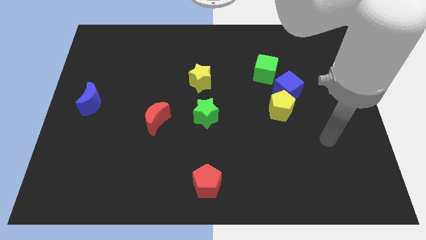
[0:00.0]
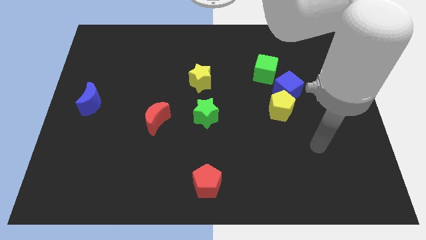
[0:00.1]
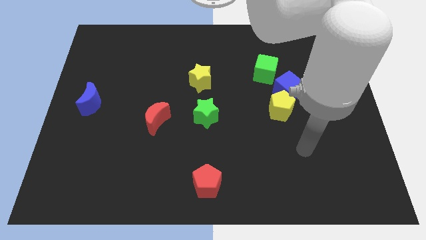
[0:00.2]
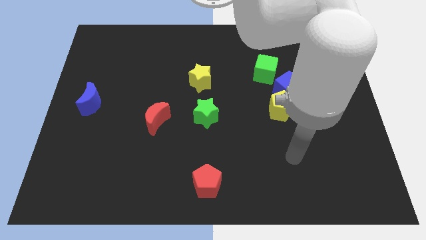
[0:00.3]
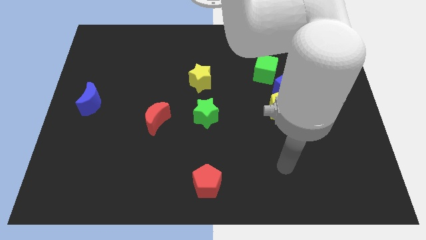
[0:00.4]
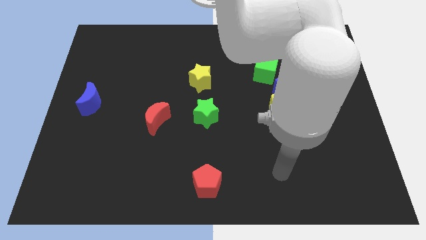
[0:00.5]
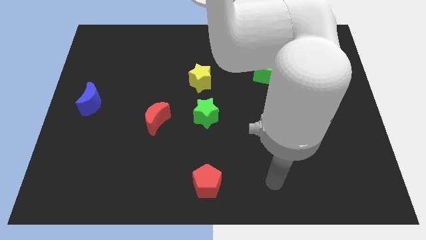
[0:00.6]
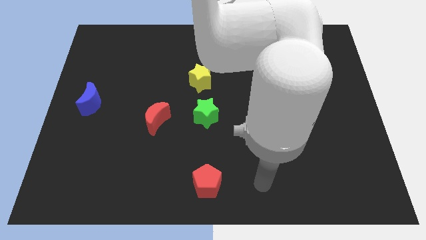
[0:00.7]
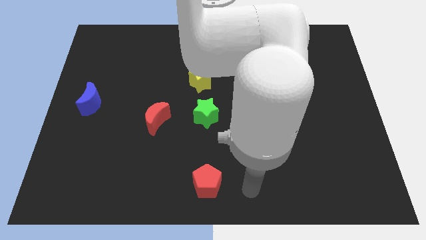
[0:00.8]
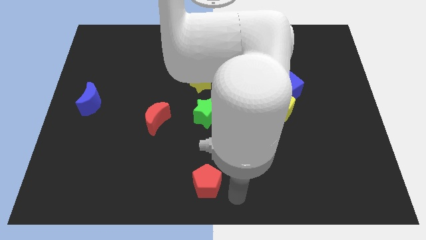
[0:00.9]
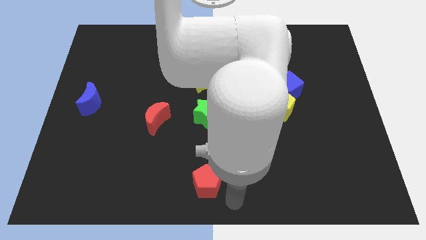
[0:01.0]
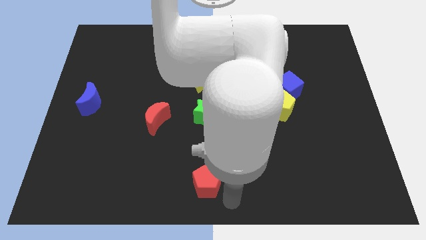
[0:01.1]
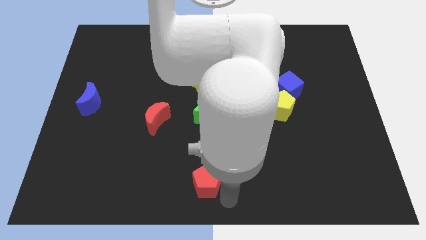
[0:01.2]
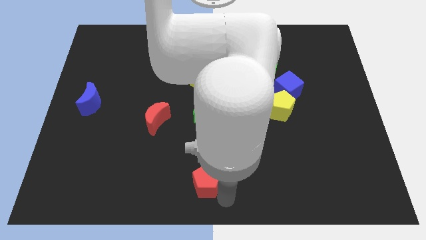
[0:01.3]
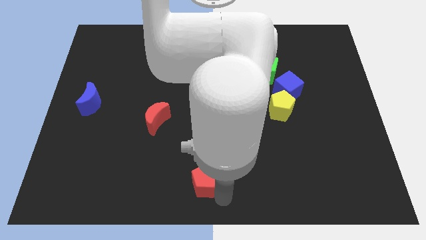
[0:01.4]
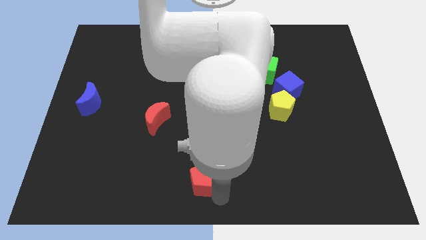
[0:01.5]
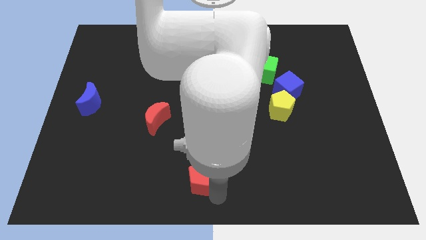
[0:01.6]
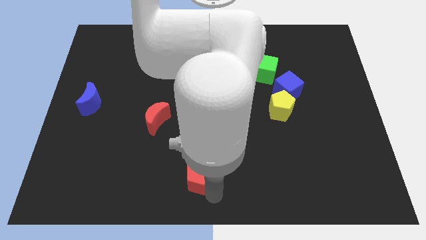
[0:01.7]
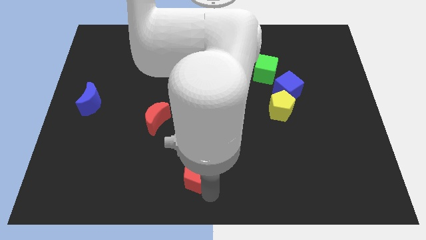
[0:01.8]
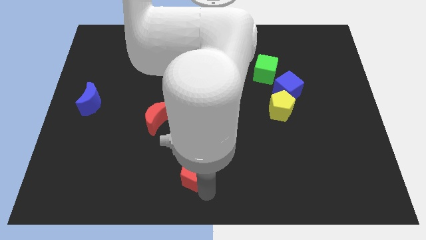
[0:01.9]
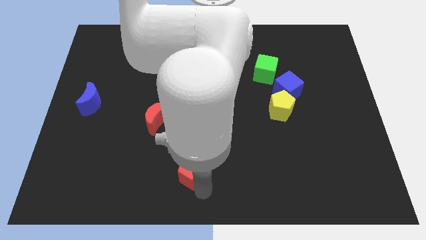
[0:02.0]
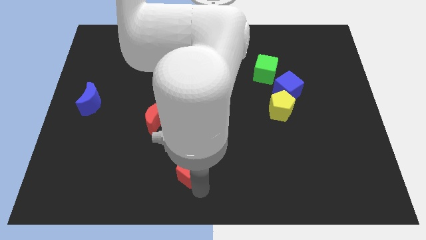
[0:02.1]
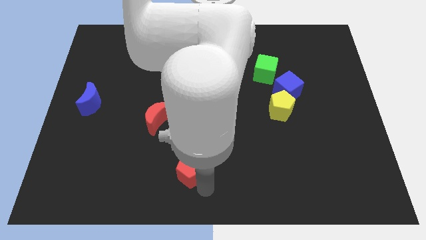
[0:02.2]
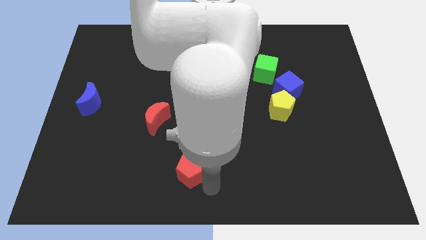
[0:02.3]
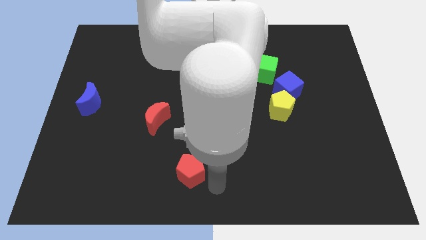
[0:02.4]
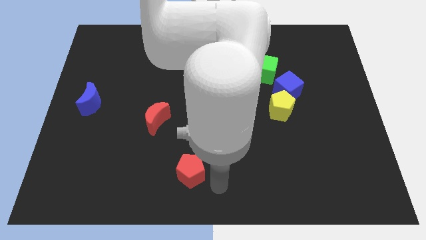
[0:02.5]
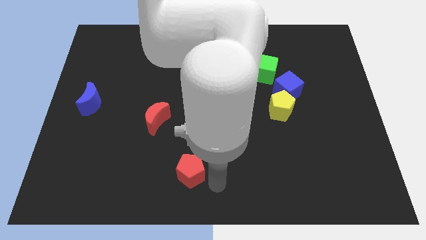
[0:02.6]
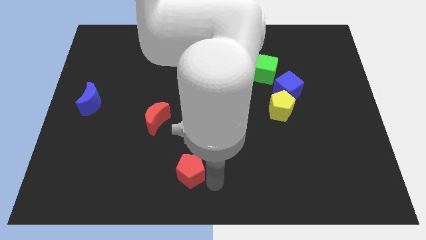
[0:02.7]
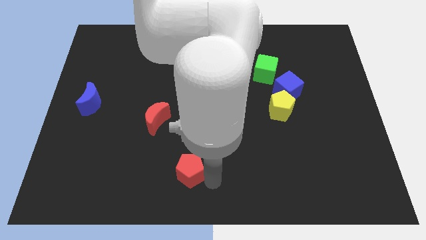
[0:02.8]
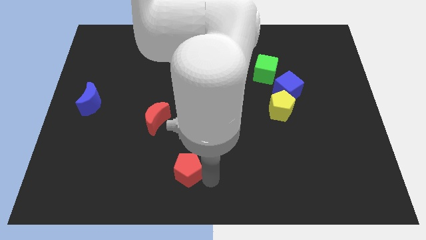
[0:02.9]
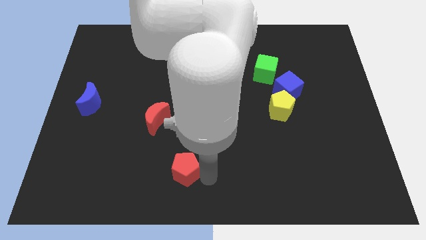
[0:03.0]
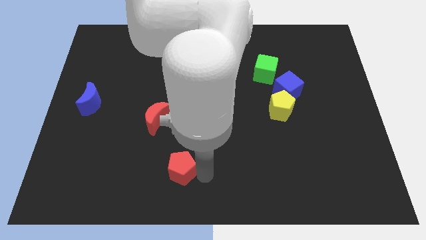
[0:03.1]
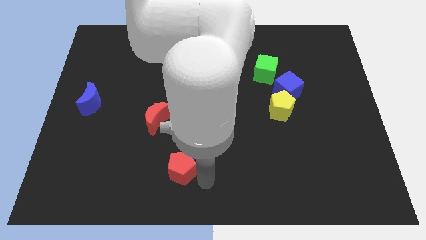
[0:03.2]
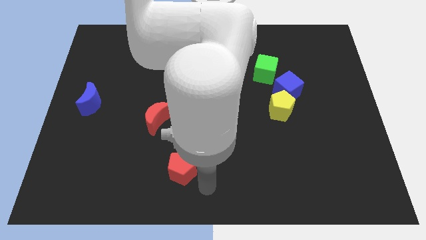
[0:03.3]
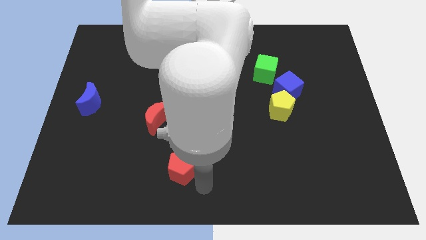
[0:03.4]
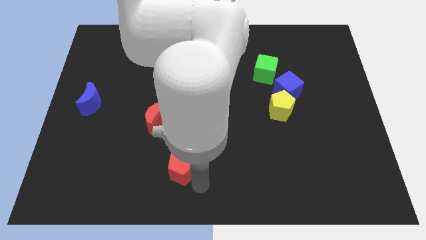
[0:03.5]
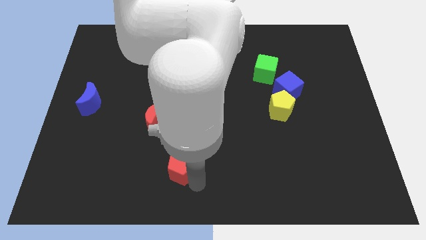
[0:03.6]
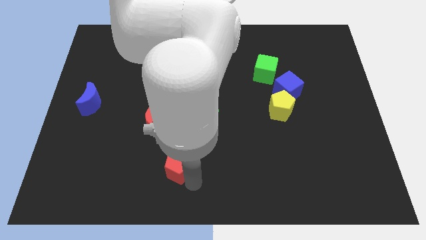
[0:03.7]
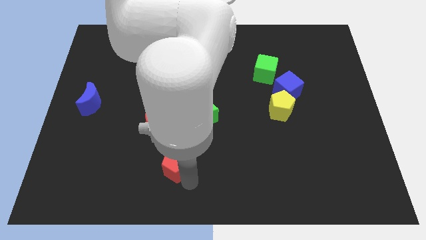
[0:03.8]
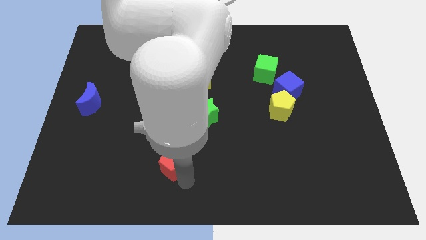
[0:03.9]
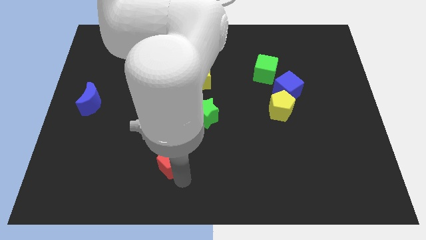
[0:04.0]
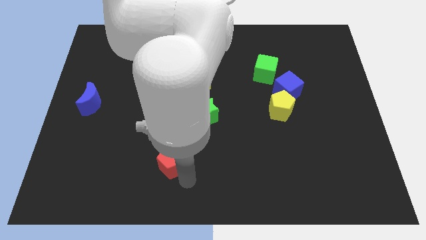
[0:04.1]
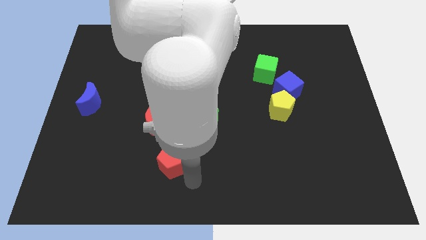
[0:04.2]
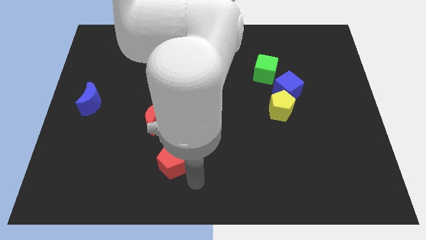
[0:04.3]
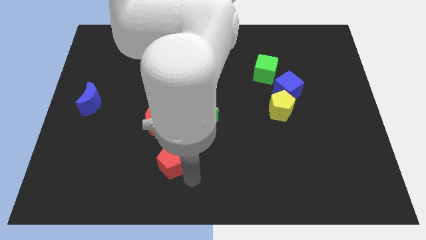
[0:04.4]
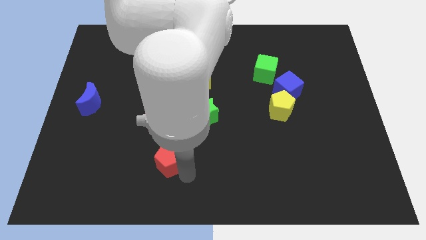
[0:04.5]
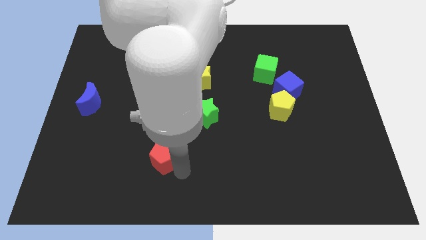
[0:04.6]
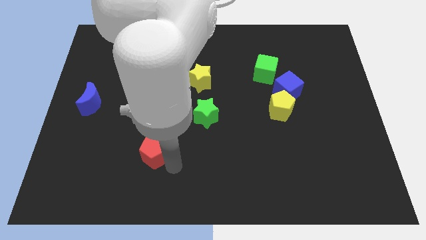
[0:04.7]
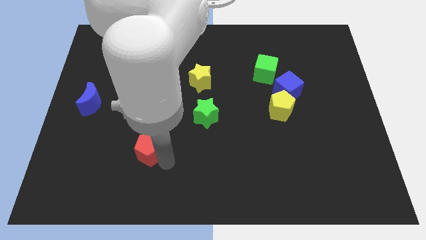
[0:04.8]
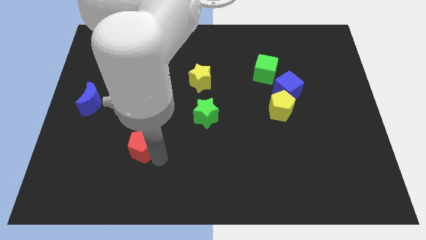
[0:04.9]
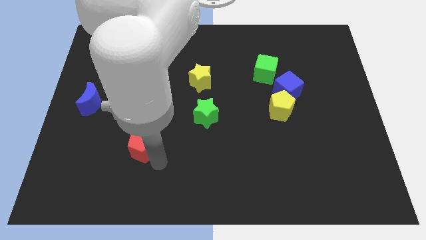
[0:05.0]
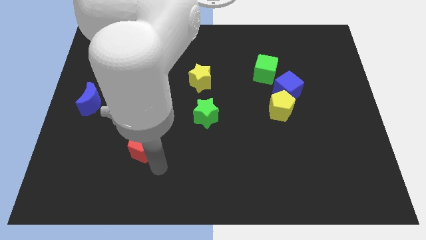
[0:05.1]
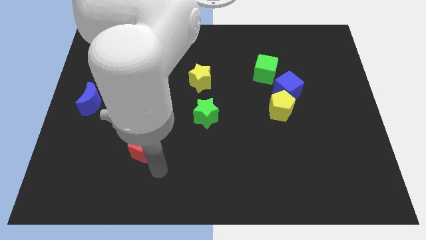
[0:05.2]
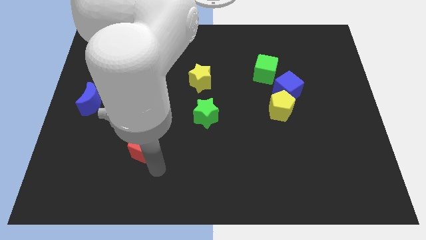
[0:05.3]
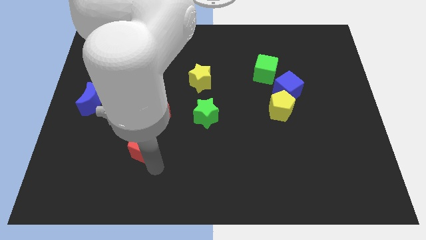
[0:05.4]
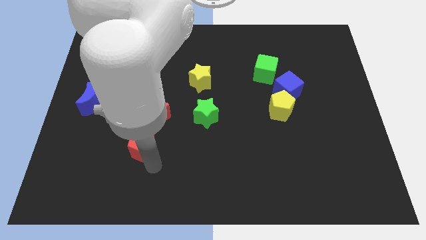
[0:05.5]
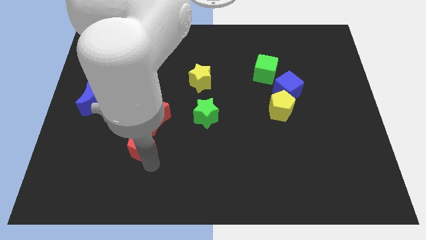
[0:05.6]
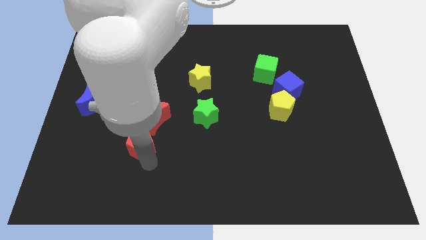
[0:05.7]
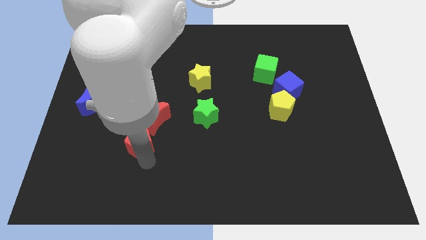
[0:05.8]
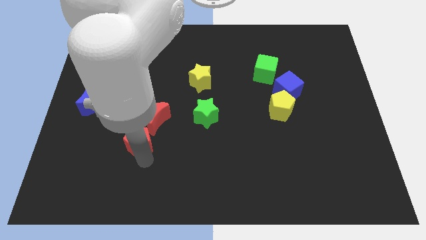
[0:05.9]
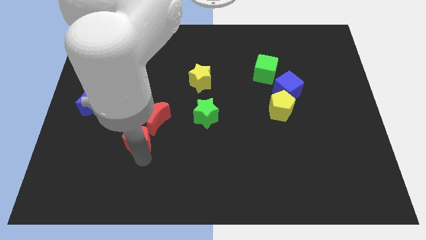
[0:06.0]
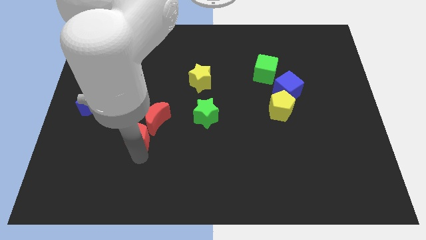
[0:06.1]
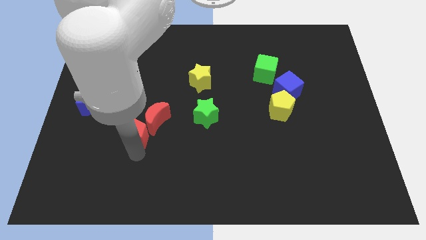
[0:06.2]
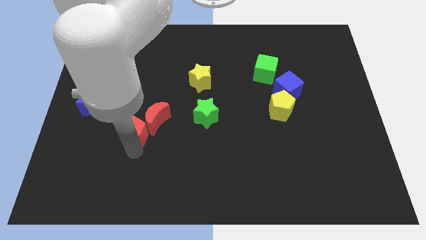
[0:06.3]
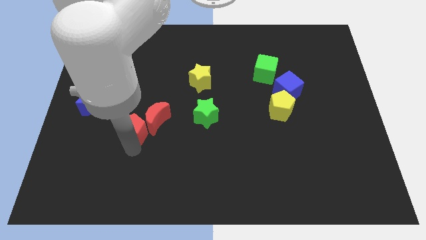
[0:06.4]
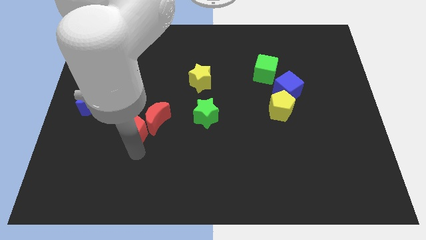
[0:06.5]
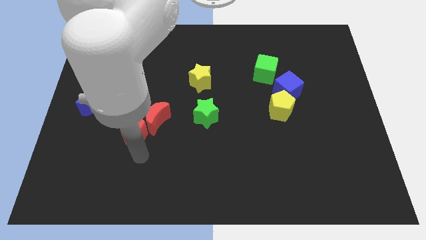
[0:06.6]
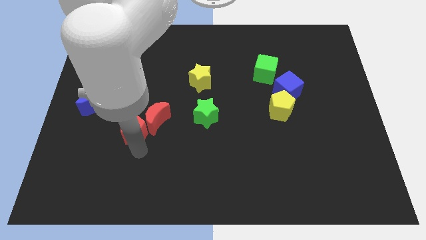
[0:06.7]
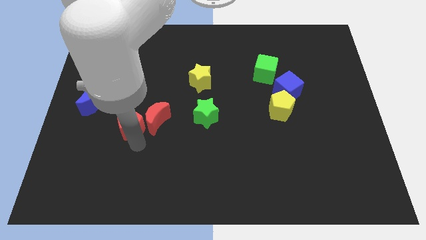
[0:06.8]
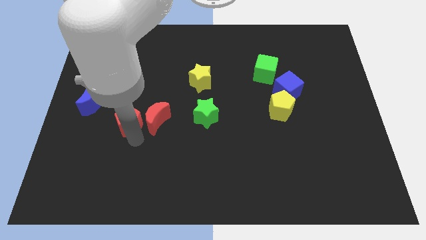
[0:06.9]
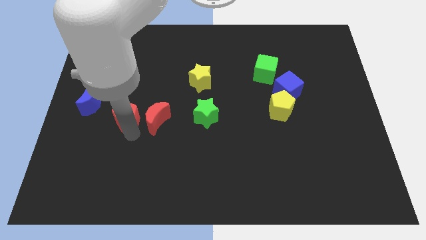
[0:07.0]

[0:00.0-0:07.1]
slide the red pentagon diagonally up and to the left of the red moon

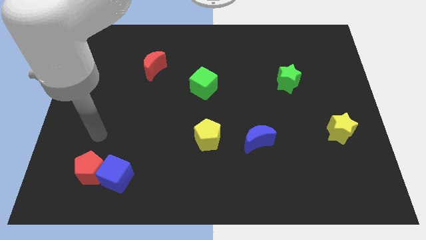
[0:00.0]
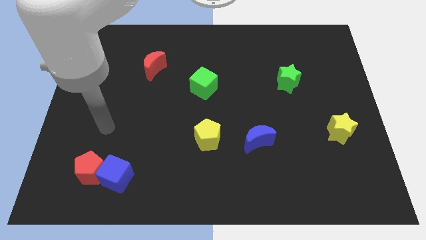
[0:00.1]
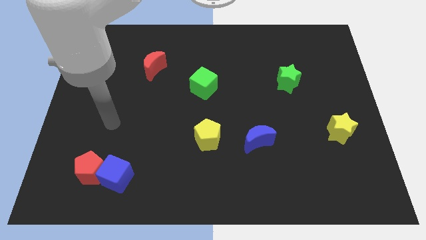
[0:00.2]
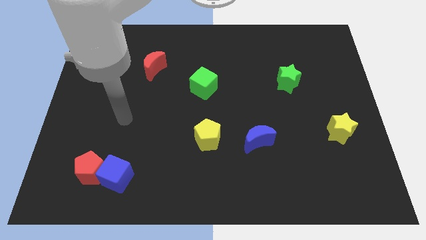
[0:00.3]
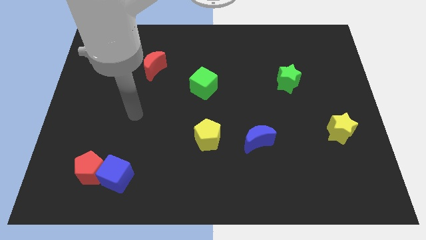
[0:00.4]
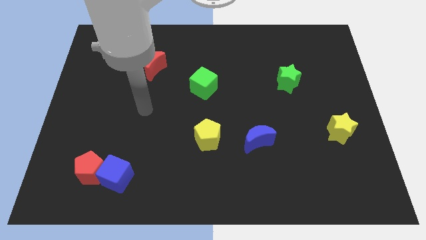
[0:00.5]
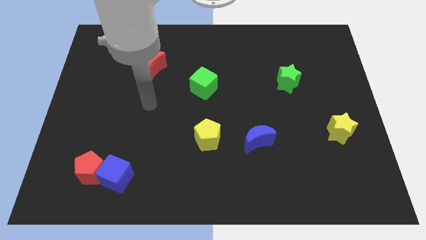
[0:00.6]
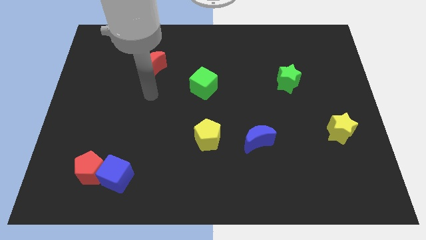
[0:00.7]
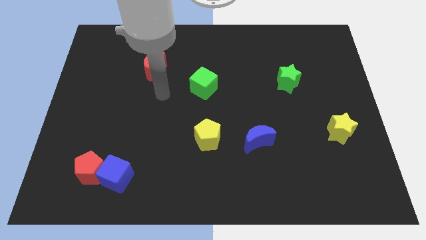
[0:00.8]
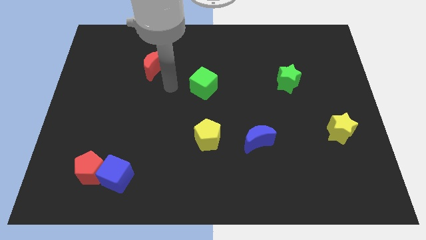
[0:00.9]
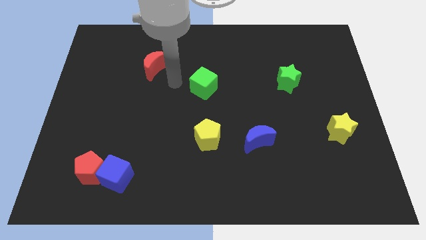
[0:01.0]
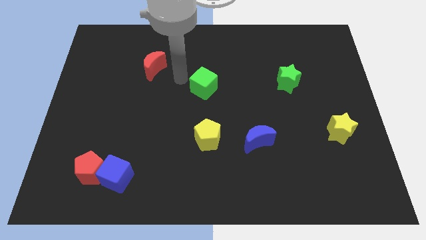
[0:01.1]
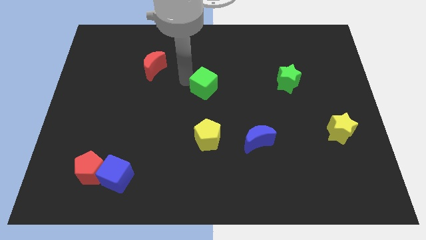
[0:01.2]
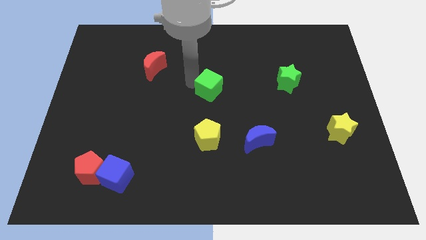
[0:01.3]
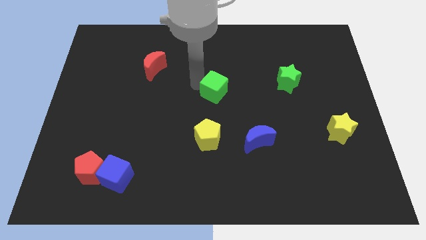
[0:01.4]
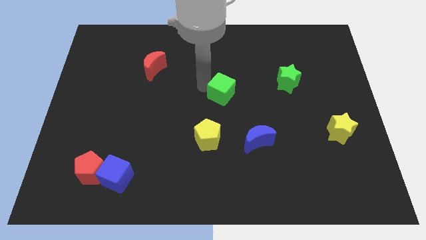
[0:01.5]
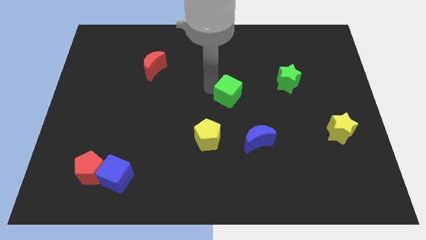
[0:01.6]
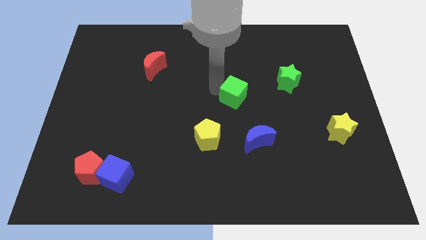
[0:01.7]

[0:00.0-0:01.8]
slide the green cube to the top of the blue moon
